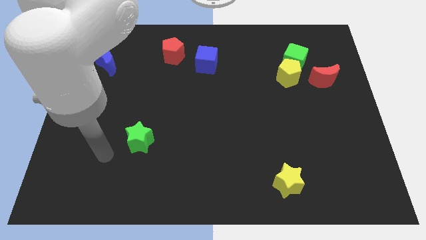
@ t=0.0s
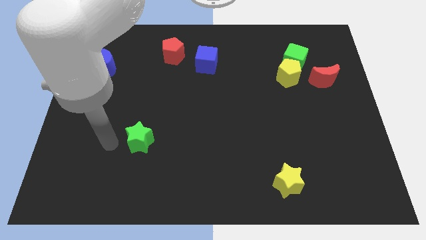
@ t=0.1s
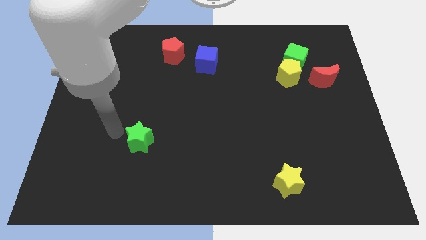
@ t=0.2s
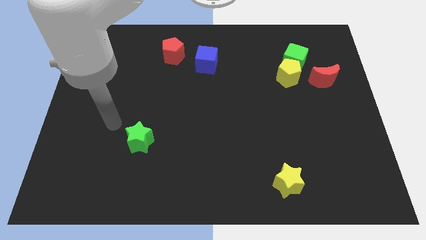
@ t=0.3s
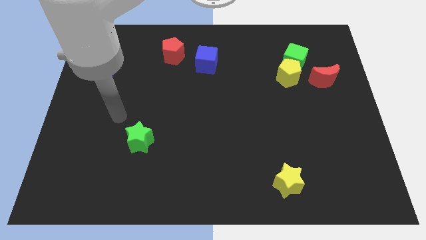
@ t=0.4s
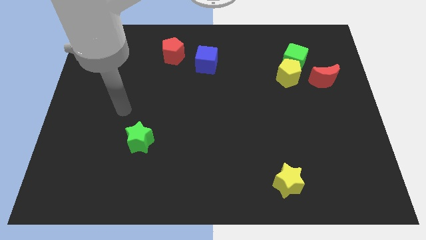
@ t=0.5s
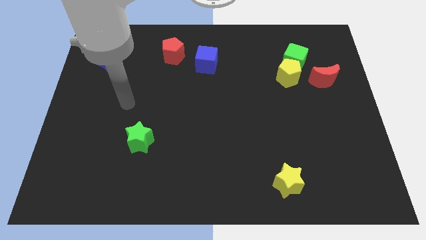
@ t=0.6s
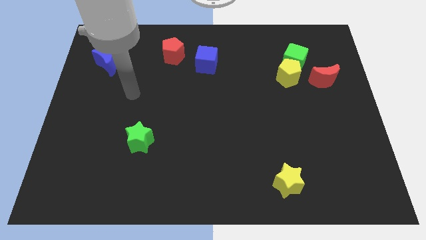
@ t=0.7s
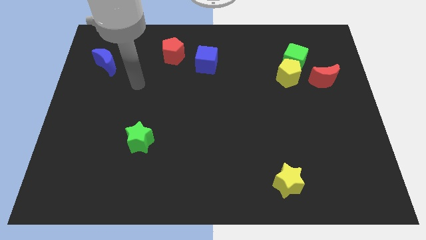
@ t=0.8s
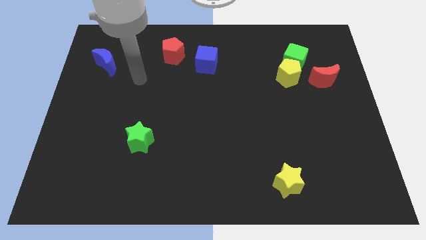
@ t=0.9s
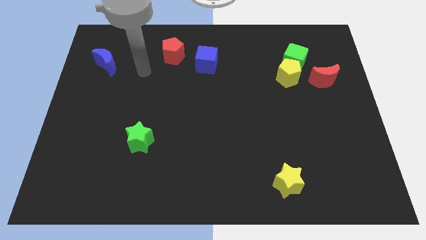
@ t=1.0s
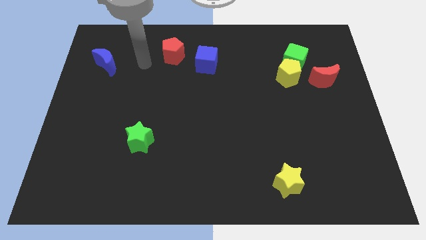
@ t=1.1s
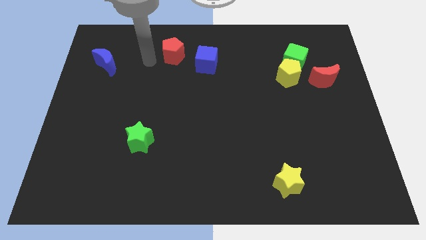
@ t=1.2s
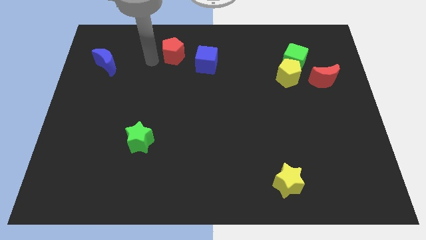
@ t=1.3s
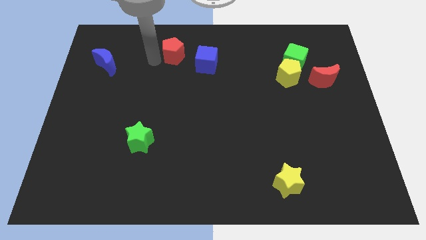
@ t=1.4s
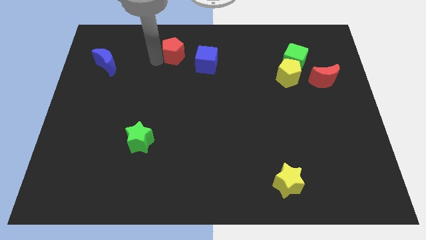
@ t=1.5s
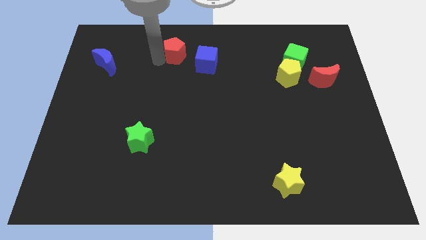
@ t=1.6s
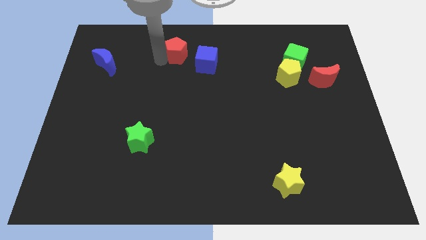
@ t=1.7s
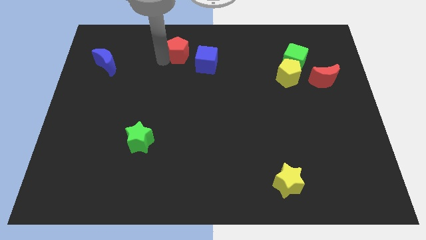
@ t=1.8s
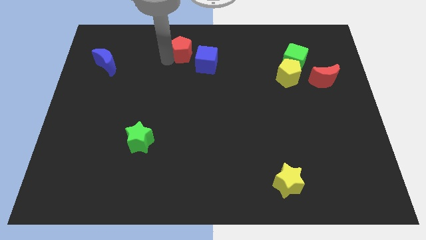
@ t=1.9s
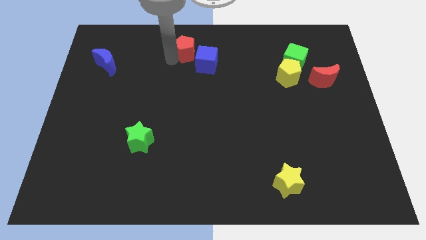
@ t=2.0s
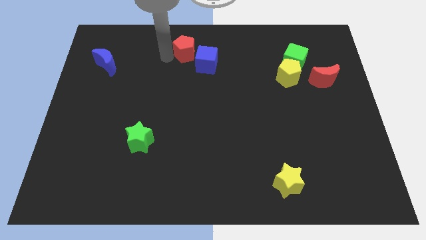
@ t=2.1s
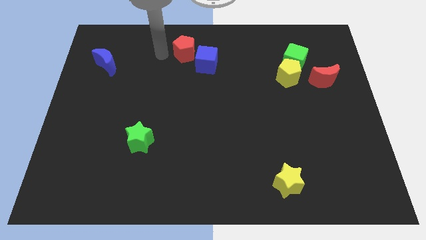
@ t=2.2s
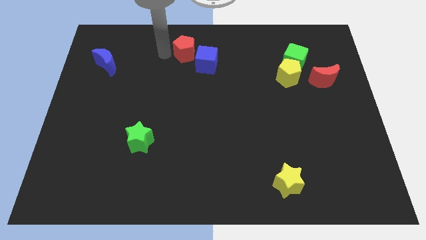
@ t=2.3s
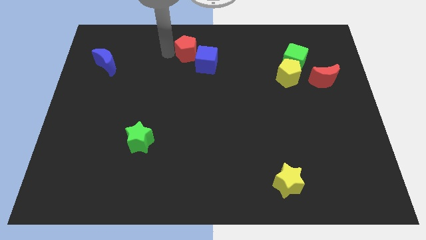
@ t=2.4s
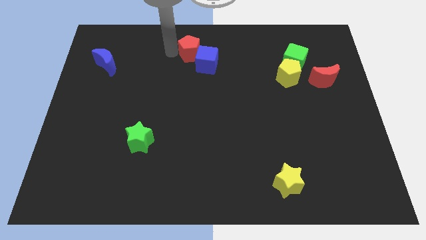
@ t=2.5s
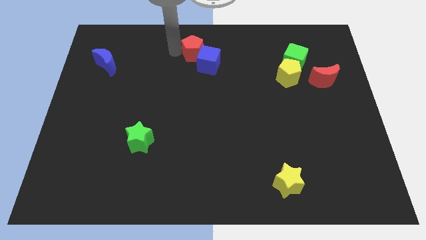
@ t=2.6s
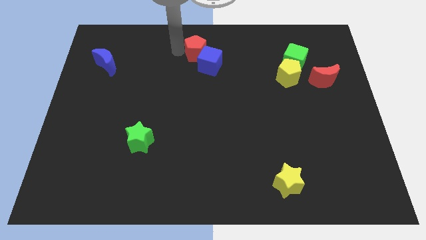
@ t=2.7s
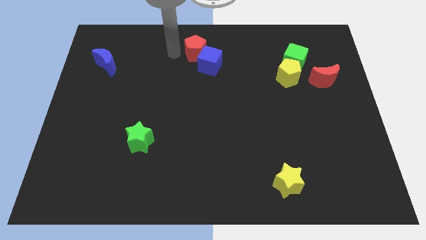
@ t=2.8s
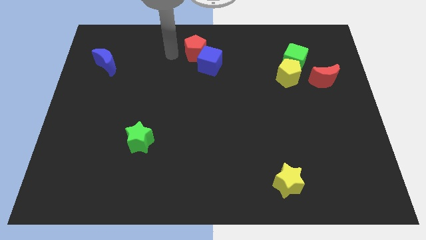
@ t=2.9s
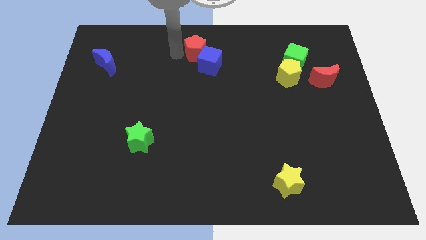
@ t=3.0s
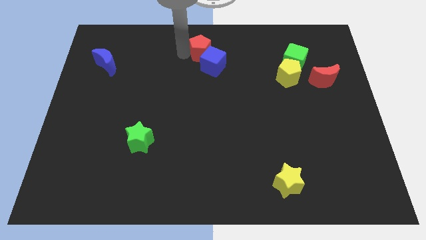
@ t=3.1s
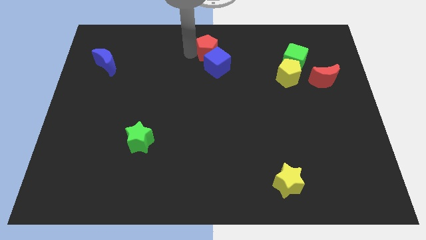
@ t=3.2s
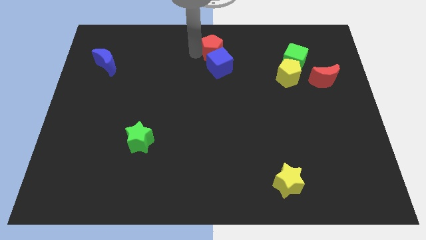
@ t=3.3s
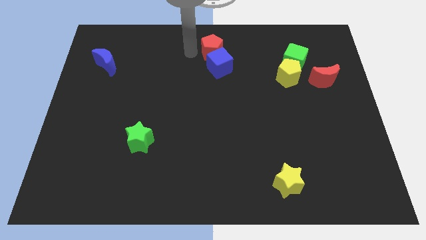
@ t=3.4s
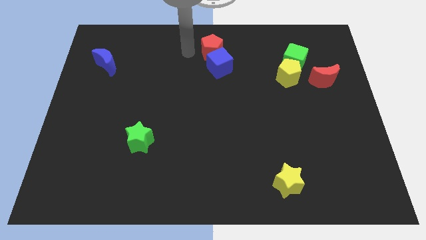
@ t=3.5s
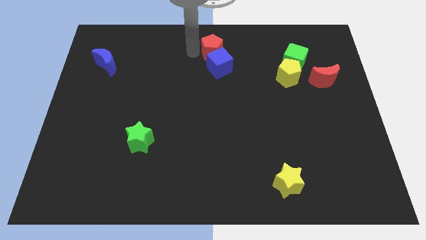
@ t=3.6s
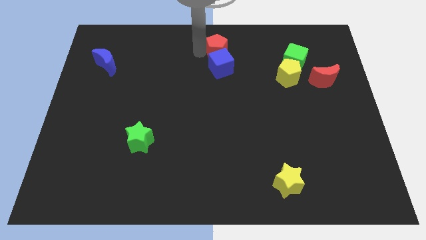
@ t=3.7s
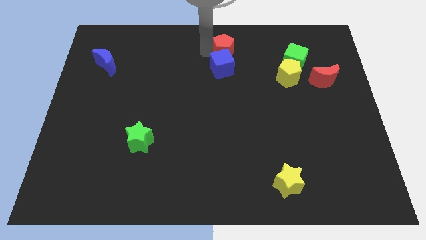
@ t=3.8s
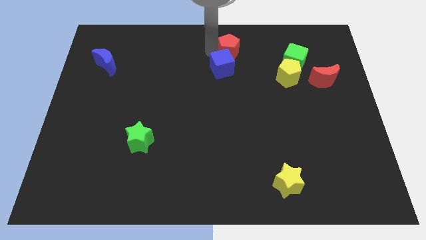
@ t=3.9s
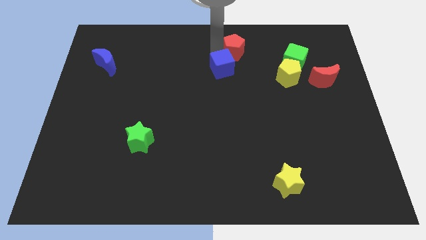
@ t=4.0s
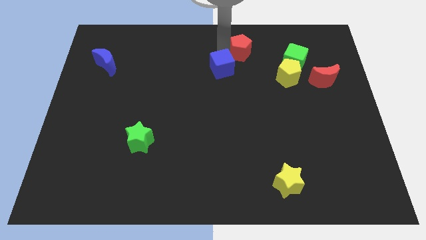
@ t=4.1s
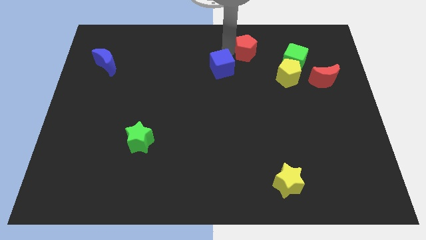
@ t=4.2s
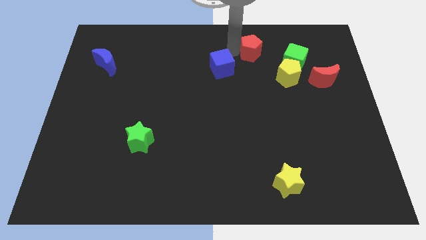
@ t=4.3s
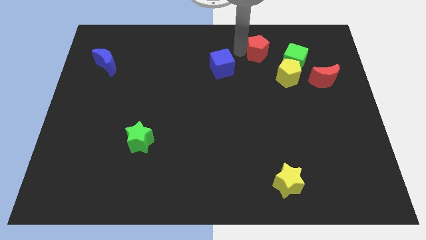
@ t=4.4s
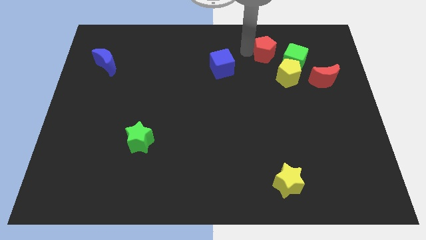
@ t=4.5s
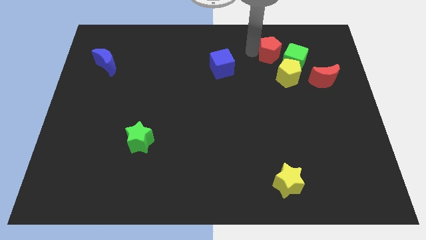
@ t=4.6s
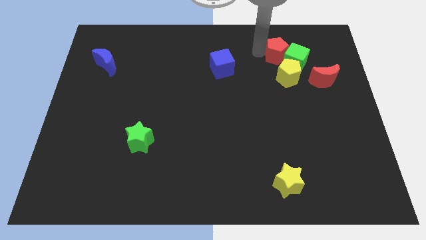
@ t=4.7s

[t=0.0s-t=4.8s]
push the red pentagon towards the green cube

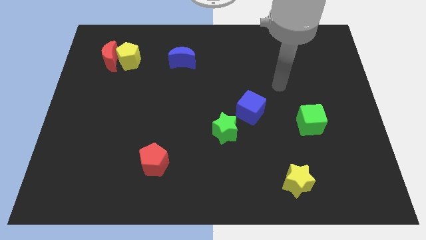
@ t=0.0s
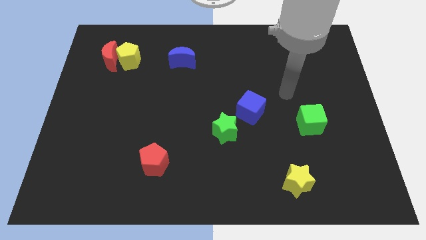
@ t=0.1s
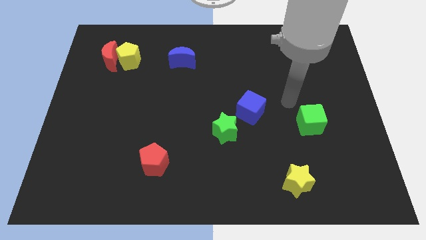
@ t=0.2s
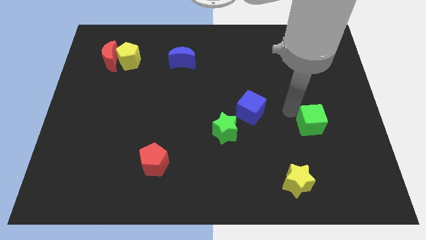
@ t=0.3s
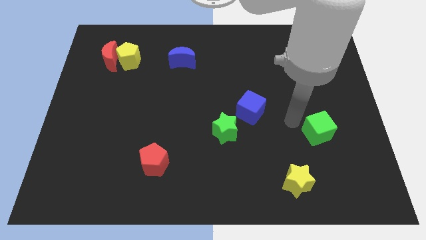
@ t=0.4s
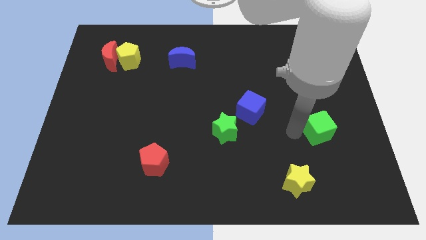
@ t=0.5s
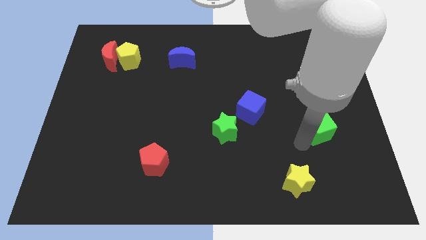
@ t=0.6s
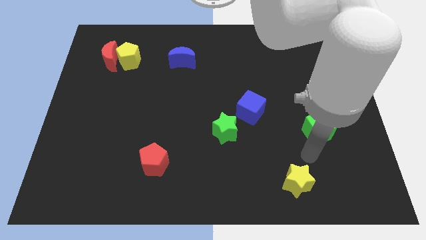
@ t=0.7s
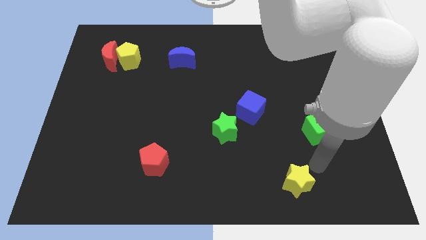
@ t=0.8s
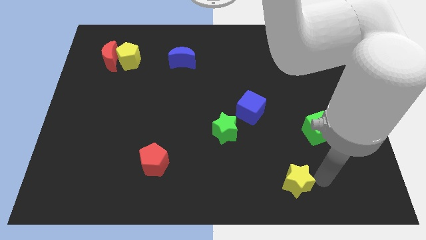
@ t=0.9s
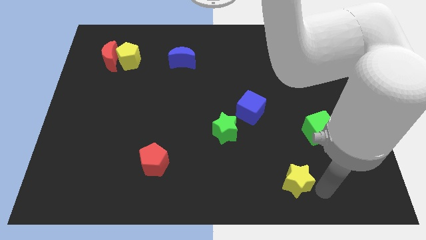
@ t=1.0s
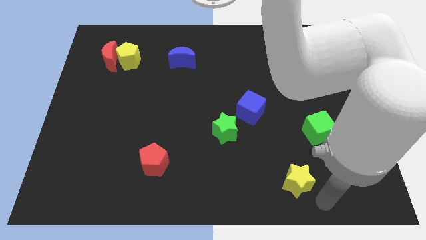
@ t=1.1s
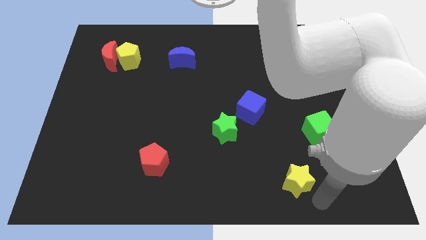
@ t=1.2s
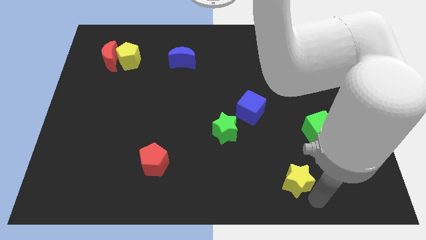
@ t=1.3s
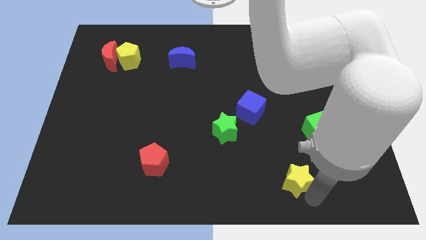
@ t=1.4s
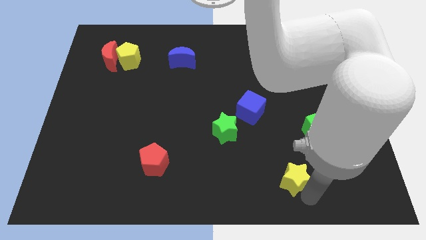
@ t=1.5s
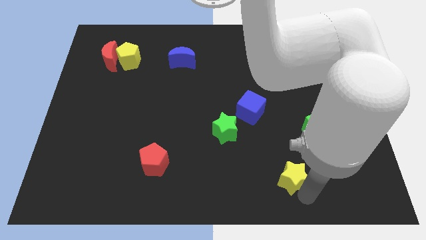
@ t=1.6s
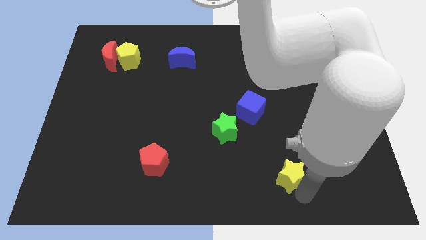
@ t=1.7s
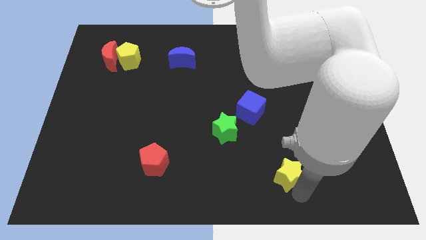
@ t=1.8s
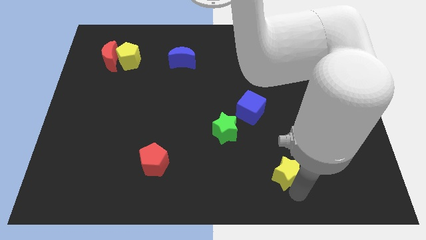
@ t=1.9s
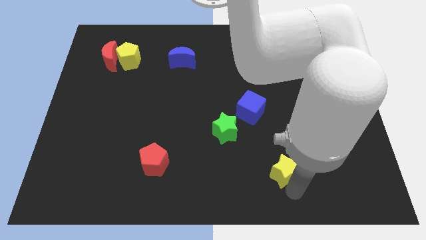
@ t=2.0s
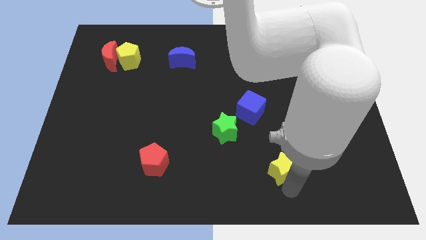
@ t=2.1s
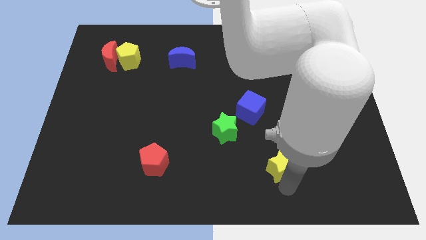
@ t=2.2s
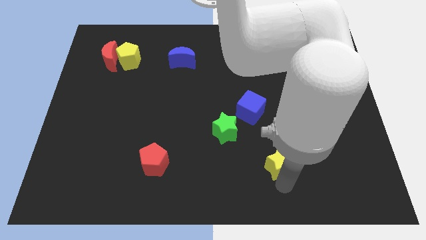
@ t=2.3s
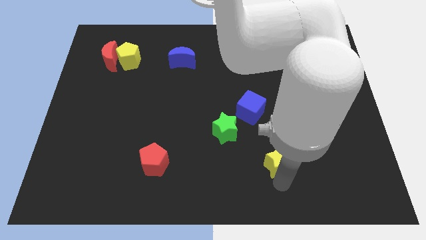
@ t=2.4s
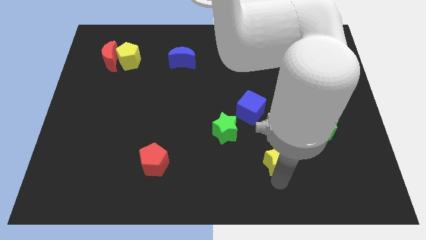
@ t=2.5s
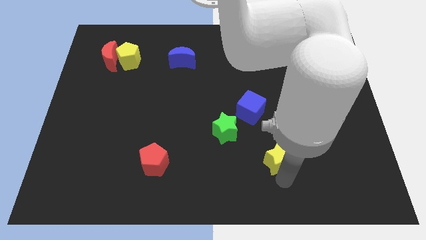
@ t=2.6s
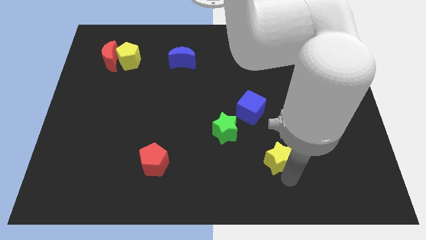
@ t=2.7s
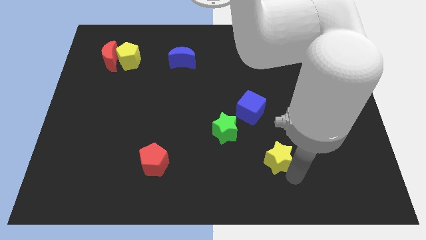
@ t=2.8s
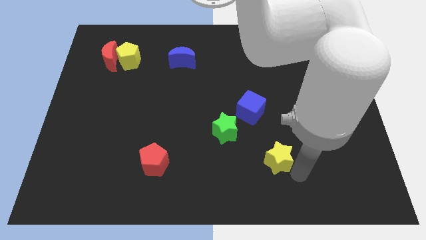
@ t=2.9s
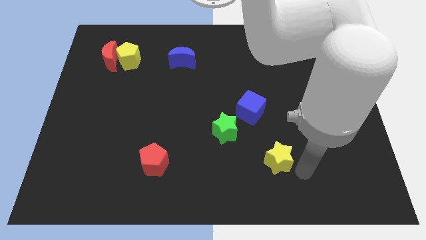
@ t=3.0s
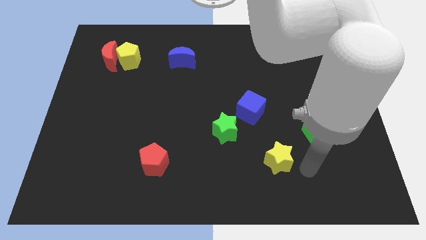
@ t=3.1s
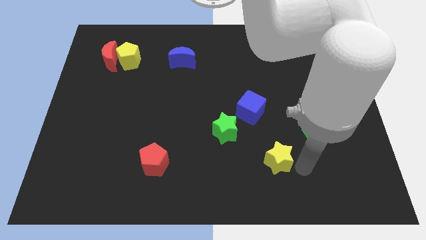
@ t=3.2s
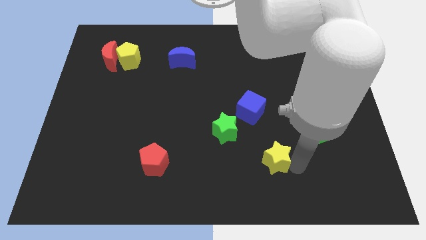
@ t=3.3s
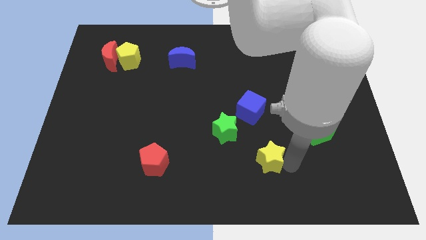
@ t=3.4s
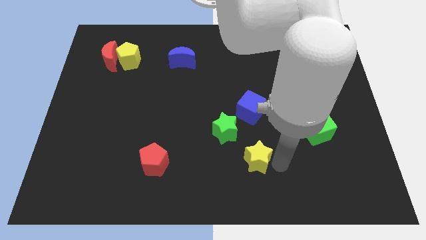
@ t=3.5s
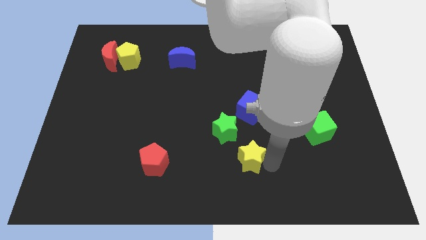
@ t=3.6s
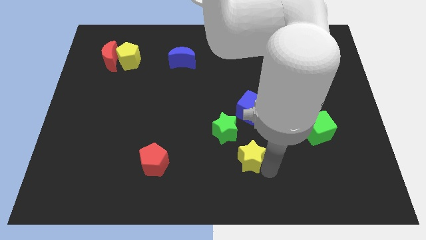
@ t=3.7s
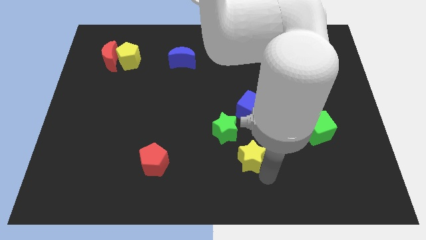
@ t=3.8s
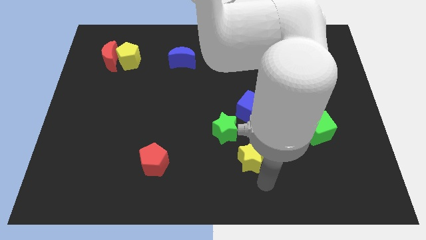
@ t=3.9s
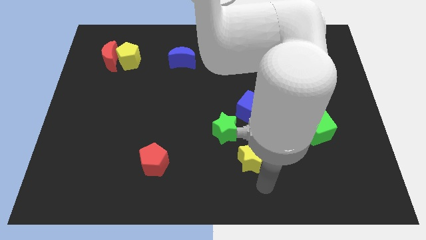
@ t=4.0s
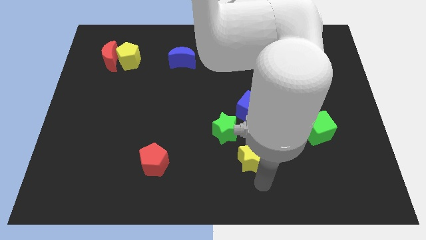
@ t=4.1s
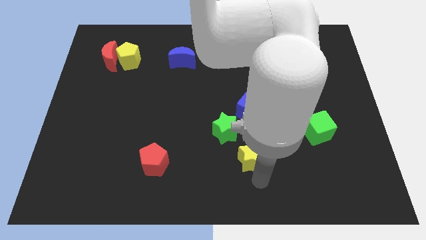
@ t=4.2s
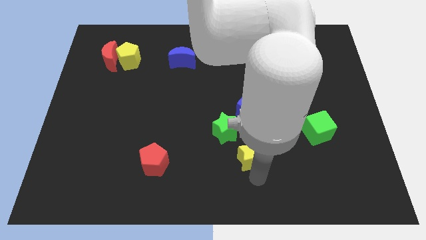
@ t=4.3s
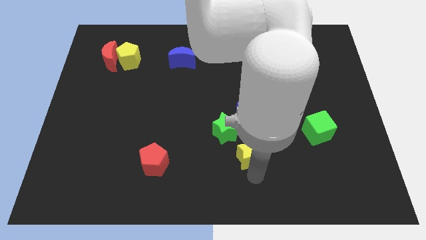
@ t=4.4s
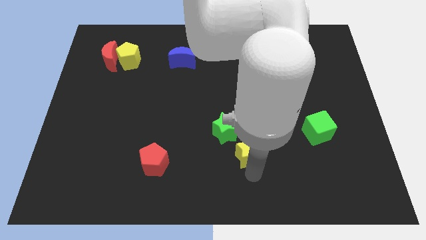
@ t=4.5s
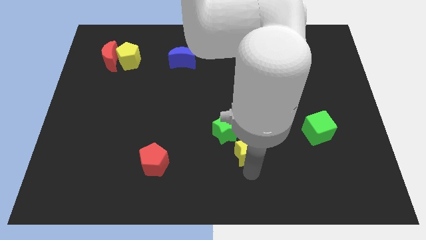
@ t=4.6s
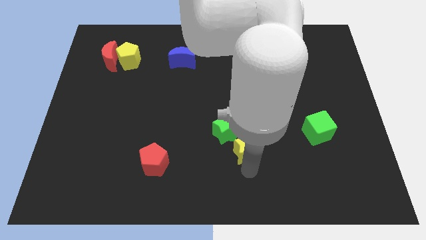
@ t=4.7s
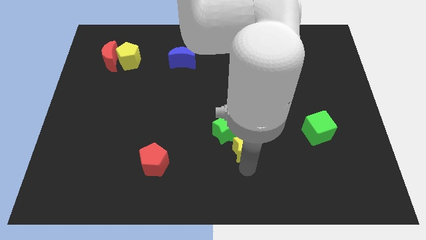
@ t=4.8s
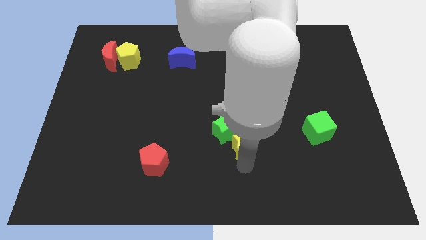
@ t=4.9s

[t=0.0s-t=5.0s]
move the yellow star next to the green star
